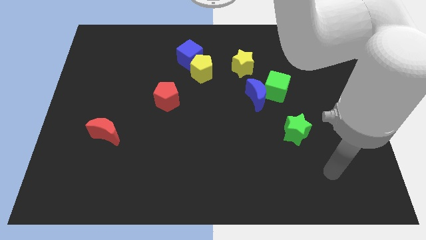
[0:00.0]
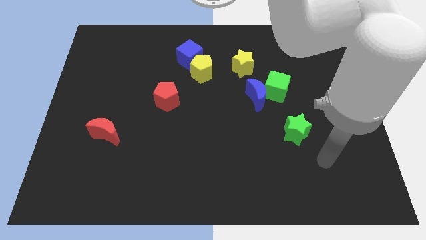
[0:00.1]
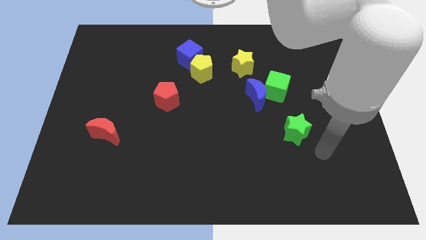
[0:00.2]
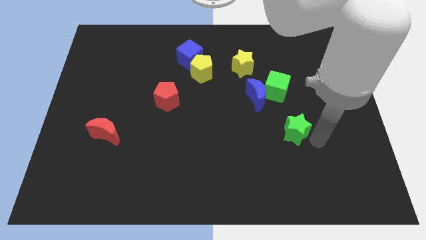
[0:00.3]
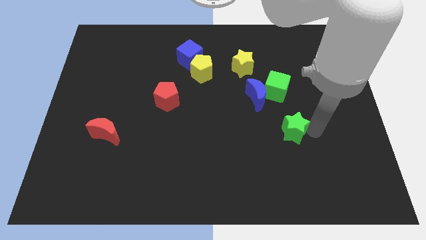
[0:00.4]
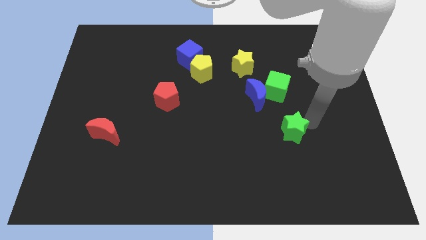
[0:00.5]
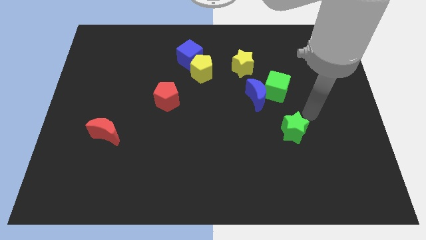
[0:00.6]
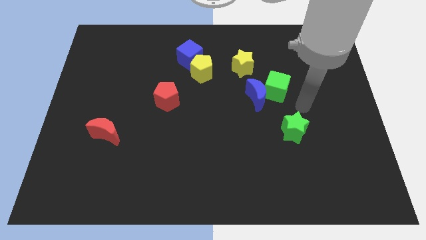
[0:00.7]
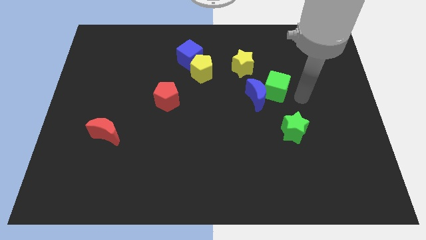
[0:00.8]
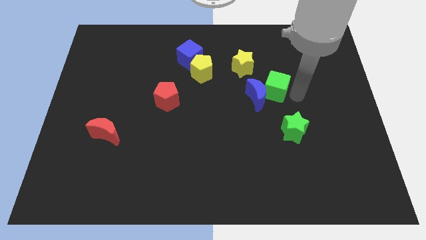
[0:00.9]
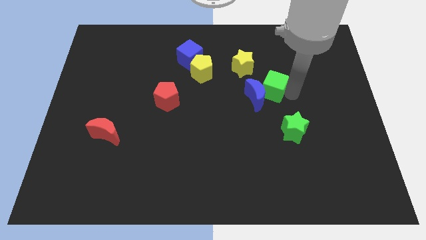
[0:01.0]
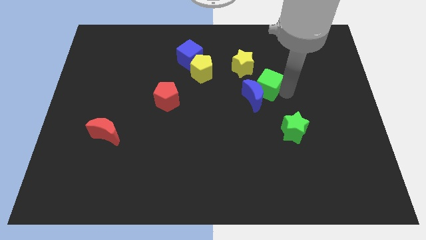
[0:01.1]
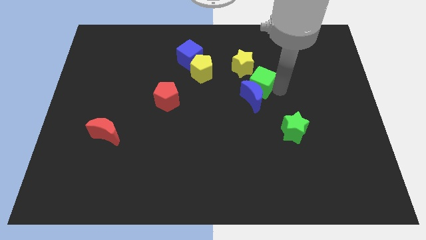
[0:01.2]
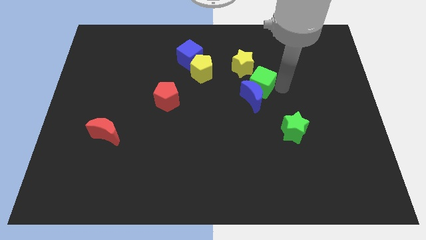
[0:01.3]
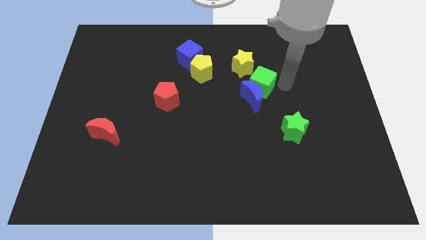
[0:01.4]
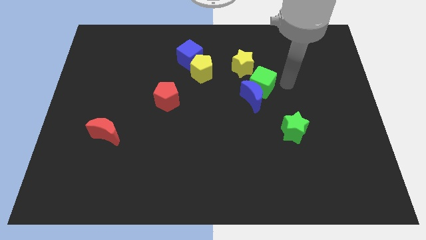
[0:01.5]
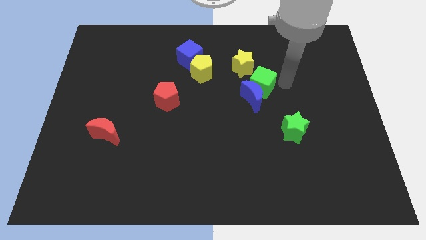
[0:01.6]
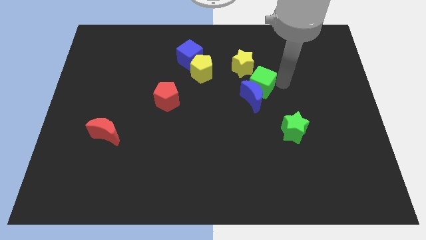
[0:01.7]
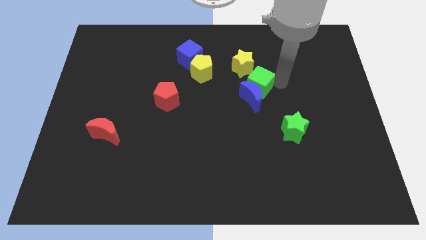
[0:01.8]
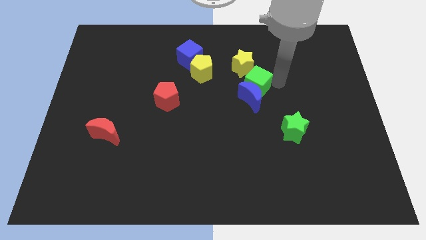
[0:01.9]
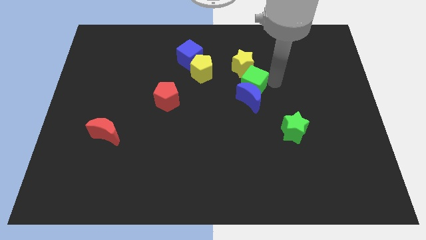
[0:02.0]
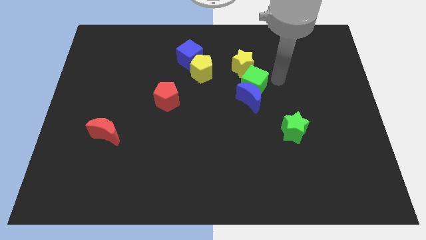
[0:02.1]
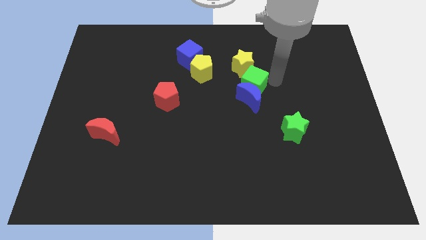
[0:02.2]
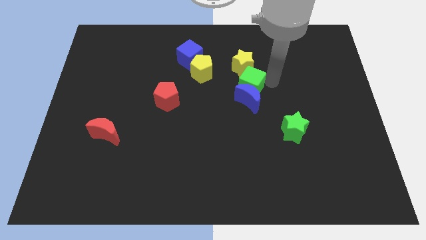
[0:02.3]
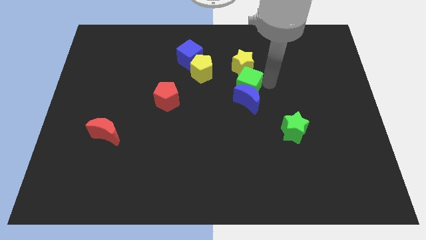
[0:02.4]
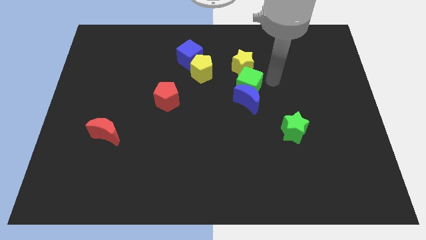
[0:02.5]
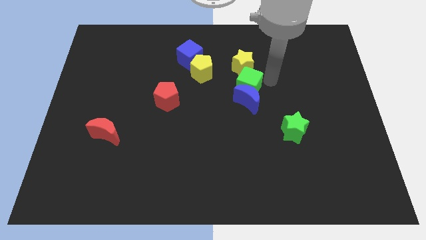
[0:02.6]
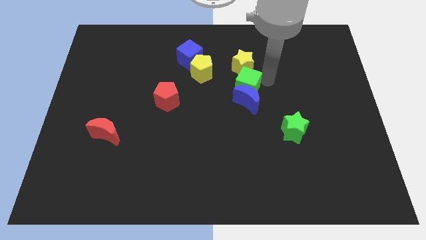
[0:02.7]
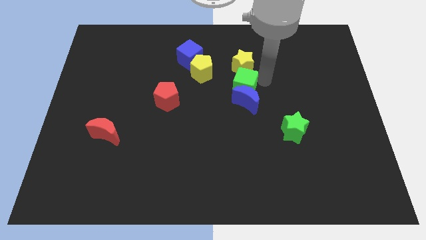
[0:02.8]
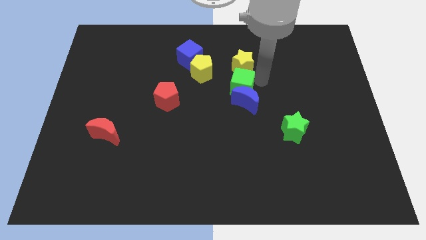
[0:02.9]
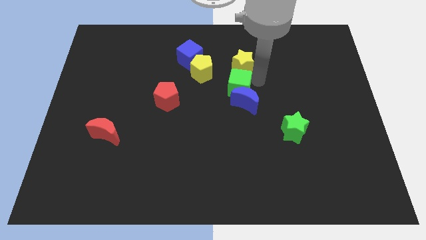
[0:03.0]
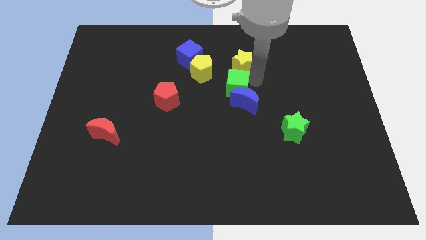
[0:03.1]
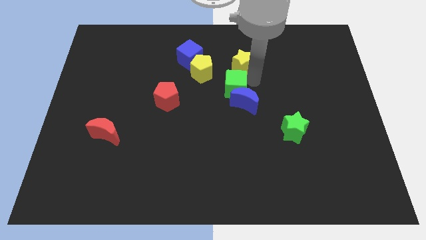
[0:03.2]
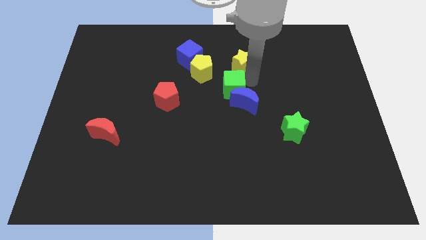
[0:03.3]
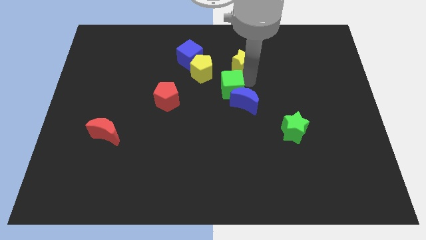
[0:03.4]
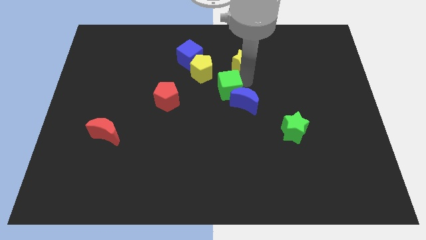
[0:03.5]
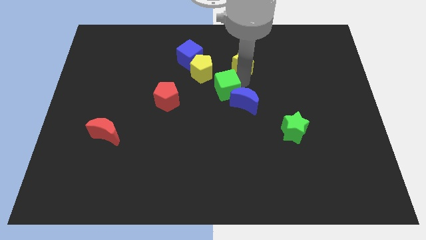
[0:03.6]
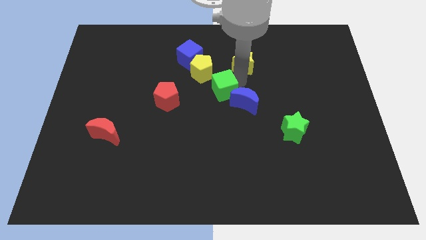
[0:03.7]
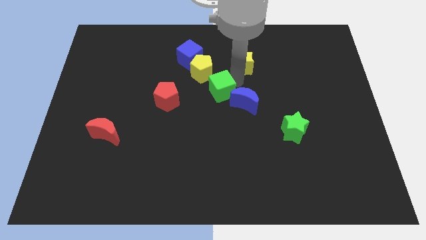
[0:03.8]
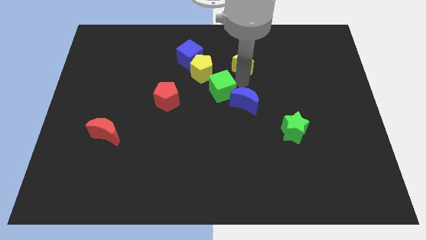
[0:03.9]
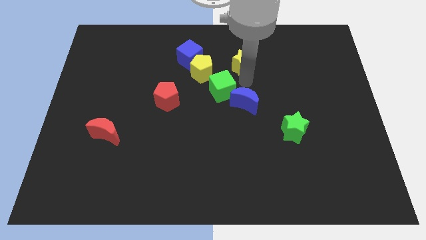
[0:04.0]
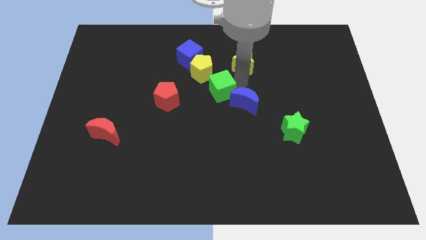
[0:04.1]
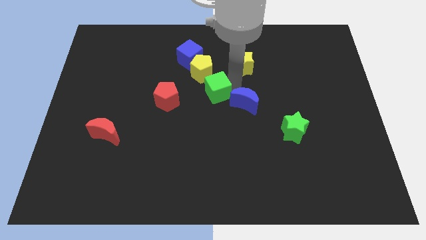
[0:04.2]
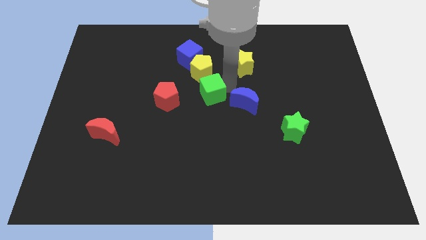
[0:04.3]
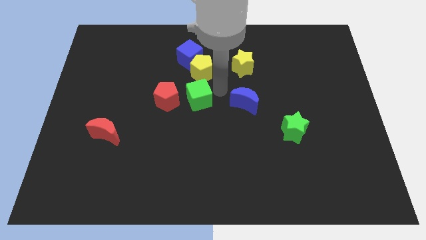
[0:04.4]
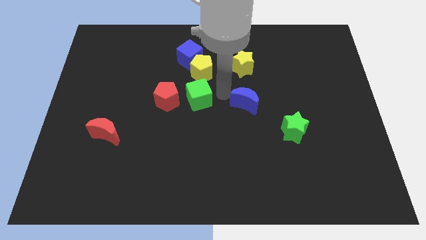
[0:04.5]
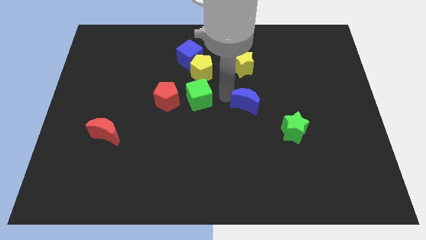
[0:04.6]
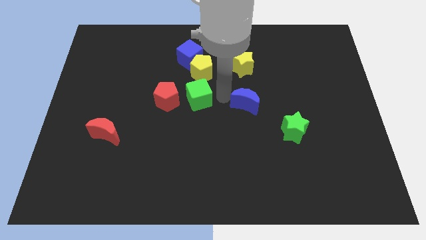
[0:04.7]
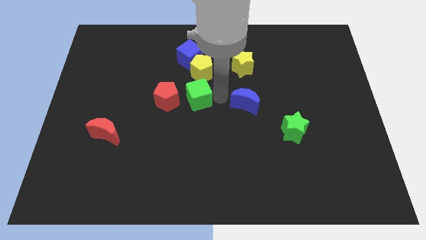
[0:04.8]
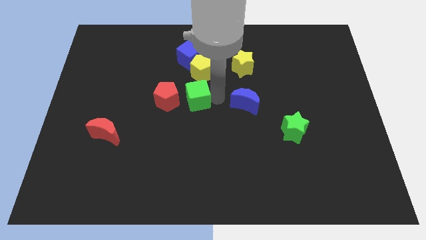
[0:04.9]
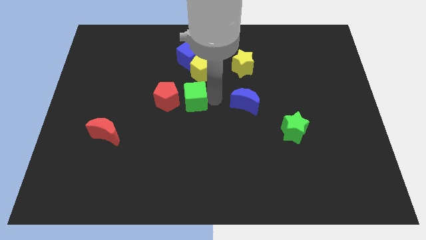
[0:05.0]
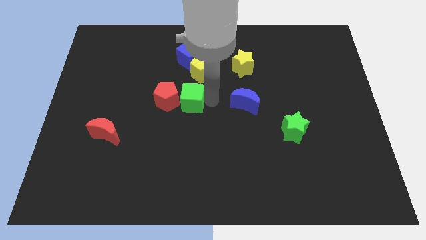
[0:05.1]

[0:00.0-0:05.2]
put the green cube next to the red pentagon

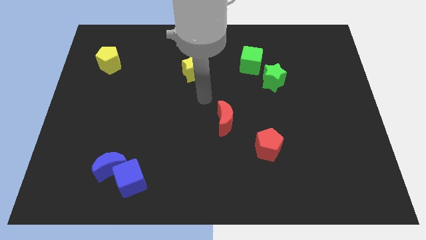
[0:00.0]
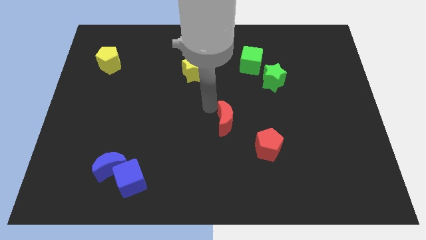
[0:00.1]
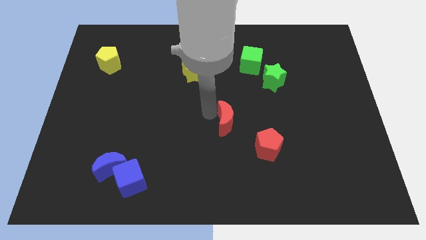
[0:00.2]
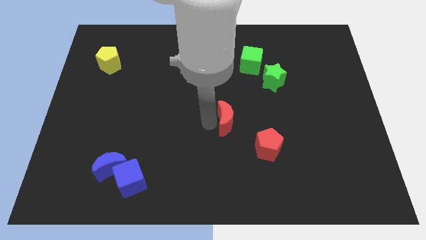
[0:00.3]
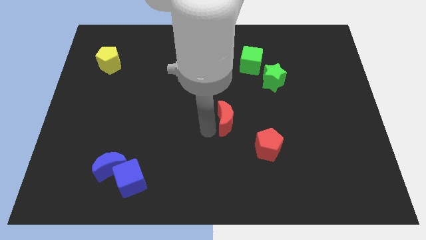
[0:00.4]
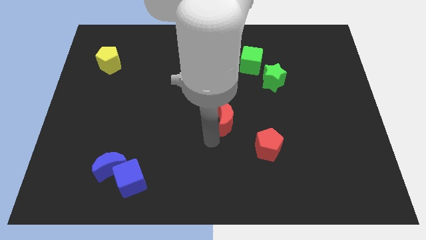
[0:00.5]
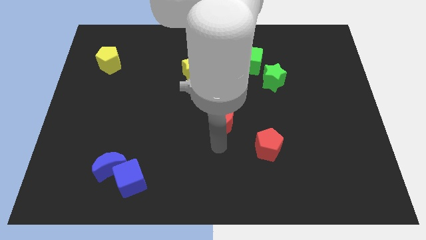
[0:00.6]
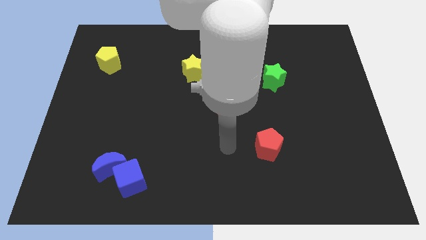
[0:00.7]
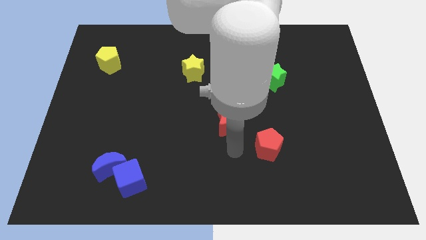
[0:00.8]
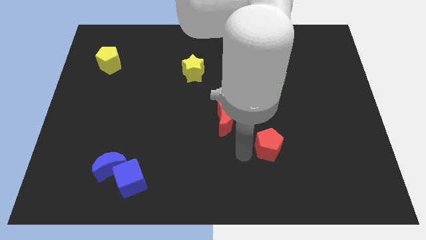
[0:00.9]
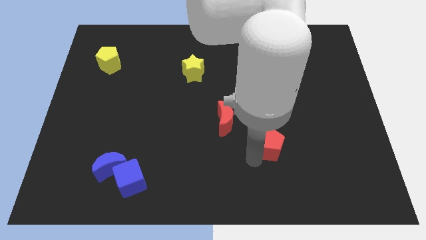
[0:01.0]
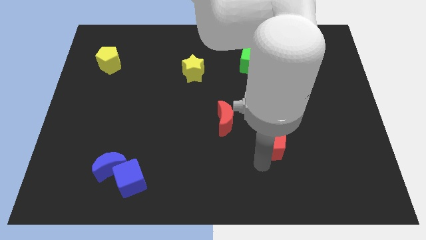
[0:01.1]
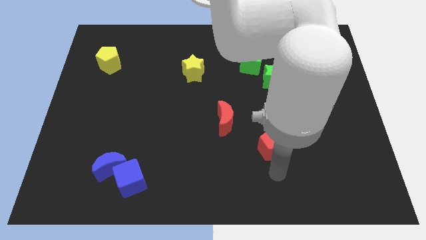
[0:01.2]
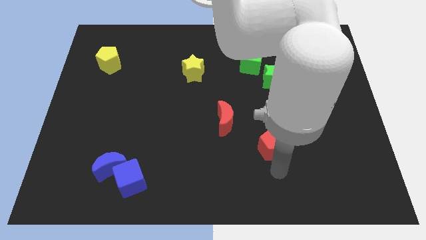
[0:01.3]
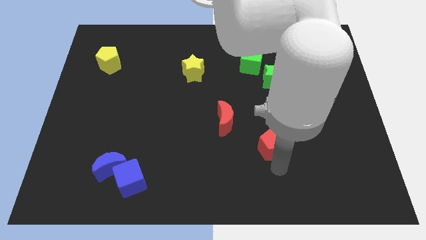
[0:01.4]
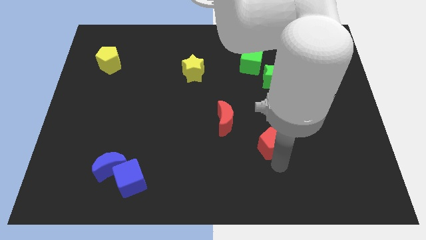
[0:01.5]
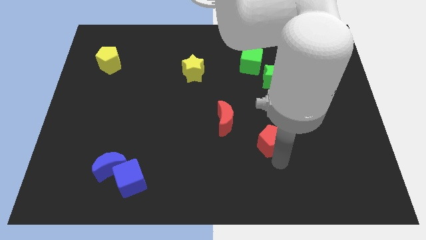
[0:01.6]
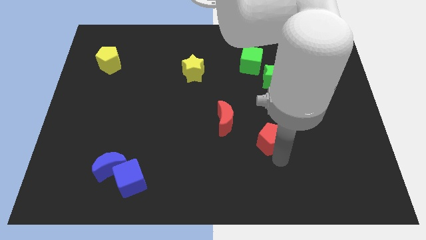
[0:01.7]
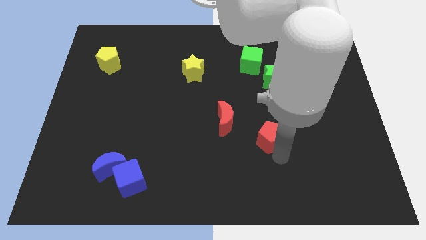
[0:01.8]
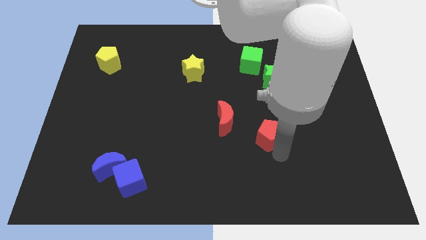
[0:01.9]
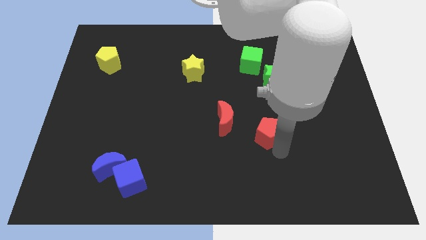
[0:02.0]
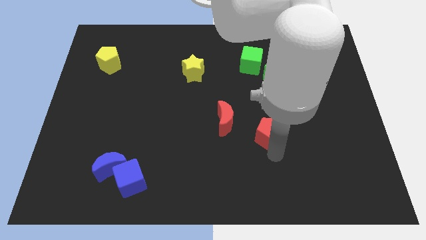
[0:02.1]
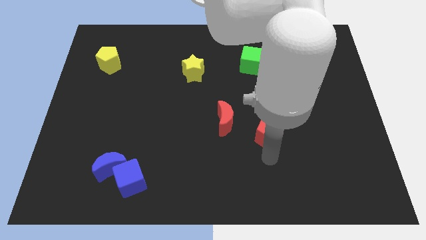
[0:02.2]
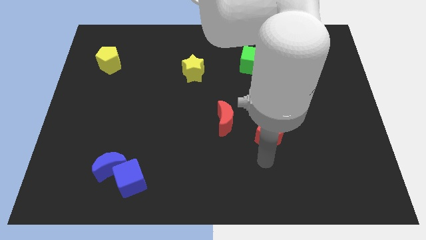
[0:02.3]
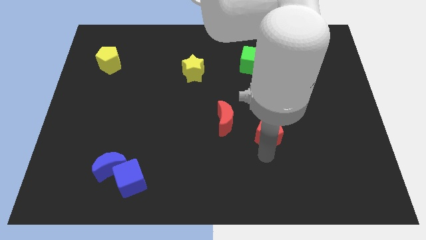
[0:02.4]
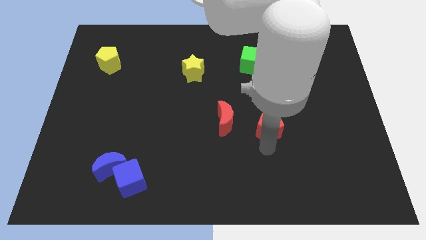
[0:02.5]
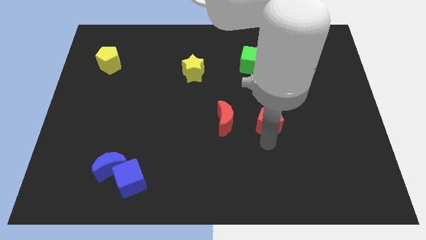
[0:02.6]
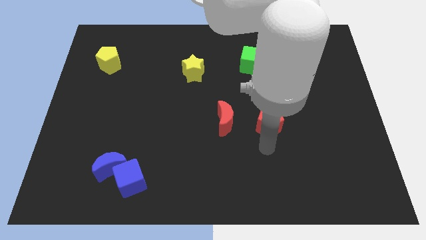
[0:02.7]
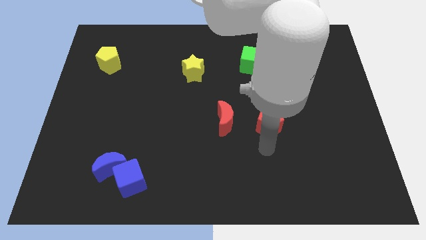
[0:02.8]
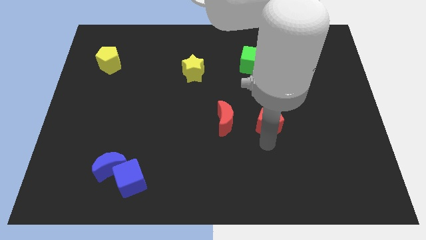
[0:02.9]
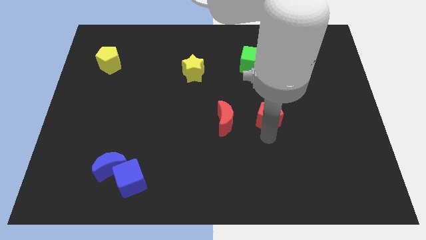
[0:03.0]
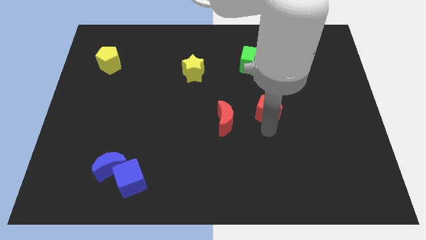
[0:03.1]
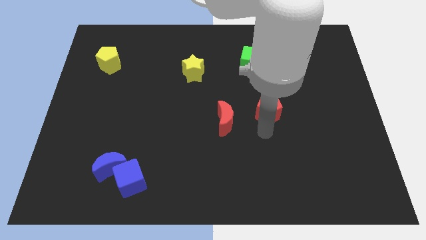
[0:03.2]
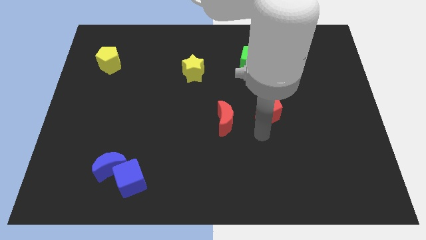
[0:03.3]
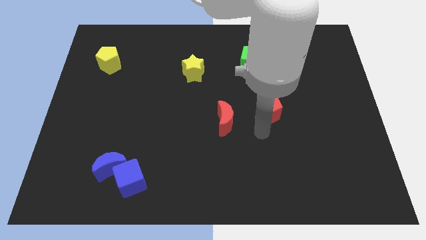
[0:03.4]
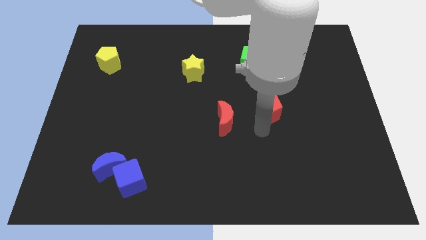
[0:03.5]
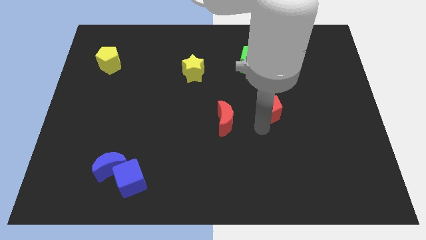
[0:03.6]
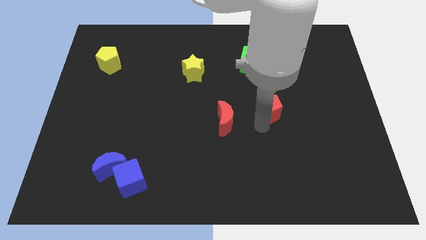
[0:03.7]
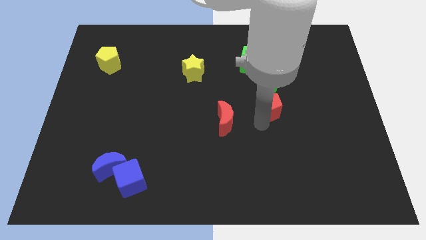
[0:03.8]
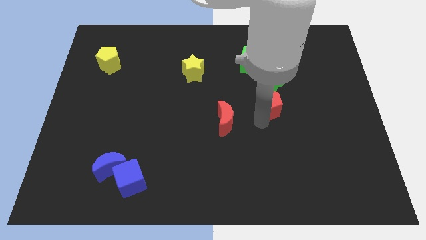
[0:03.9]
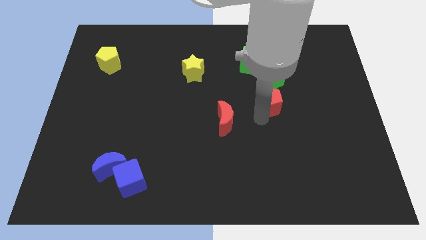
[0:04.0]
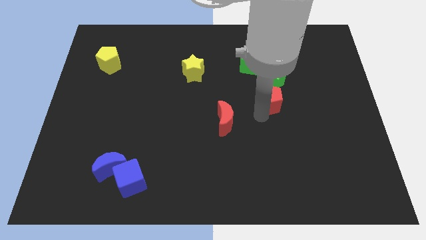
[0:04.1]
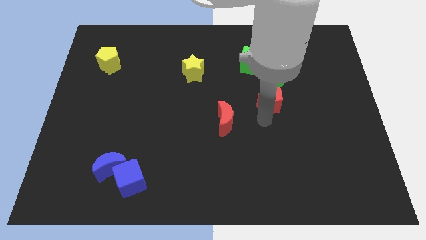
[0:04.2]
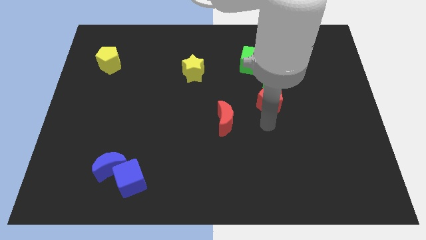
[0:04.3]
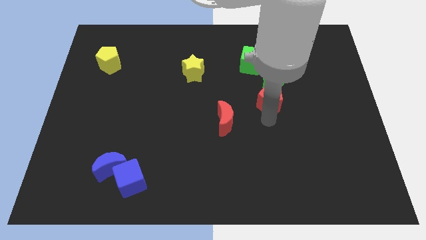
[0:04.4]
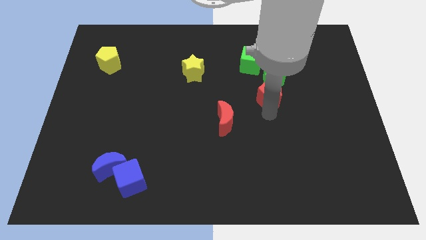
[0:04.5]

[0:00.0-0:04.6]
move the red pentagon towards the green star
